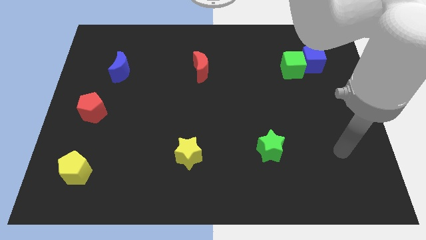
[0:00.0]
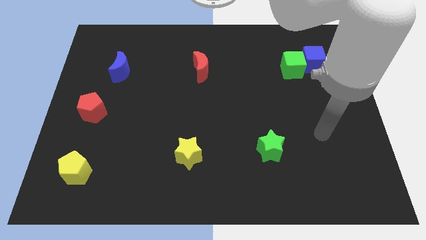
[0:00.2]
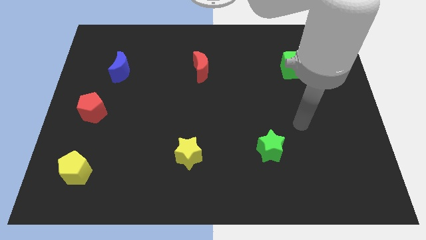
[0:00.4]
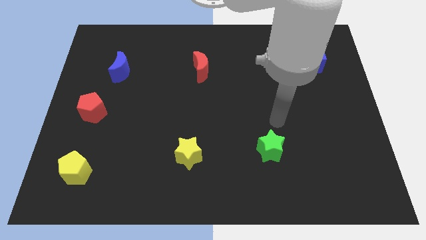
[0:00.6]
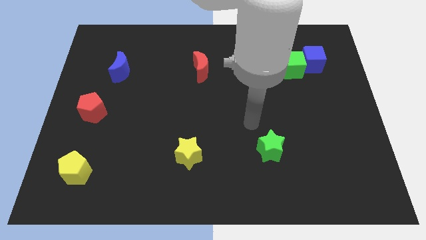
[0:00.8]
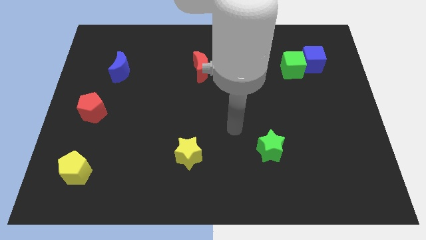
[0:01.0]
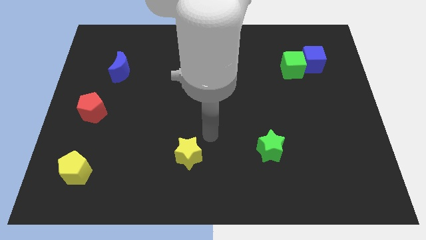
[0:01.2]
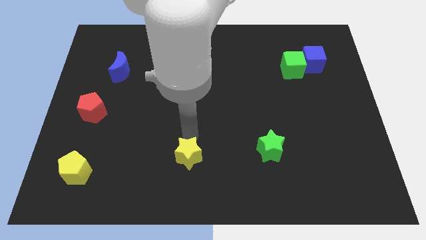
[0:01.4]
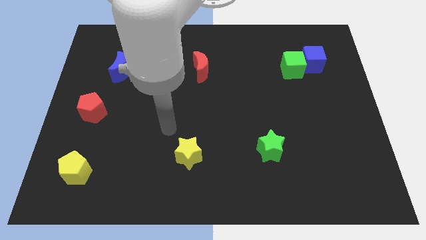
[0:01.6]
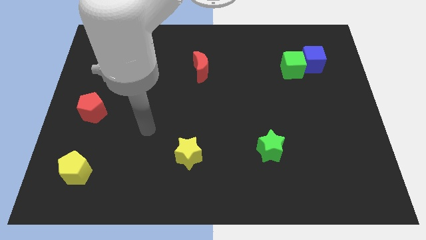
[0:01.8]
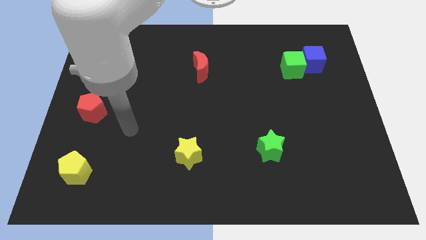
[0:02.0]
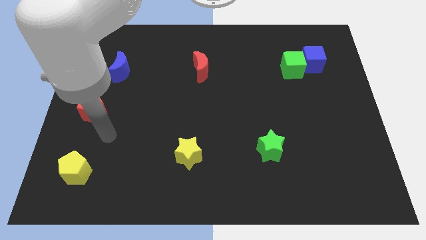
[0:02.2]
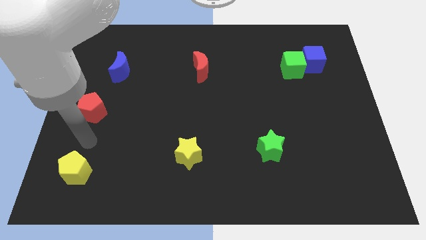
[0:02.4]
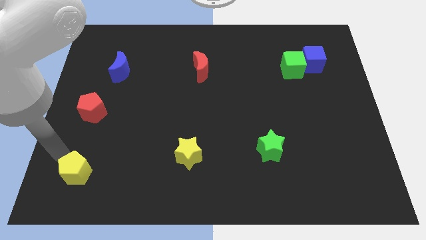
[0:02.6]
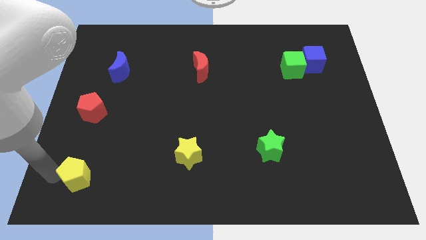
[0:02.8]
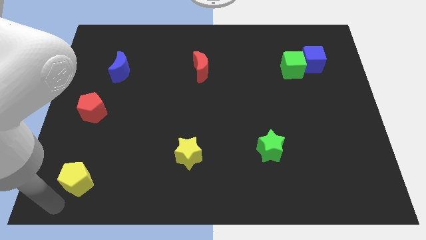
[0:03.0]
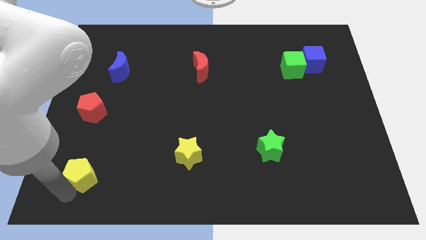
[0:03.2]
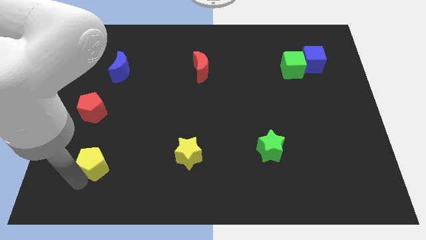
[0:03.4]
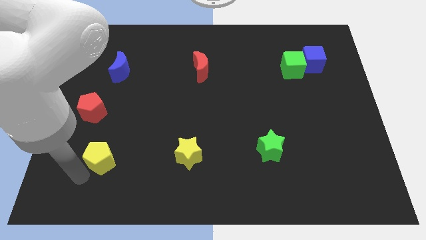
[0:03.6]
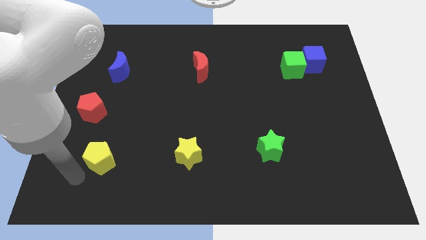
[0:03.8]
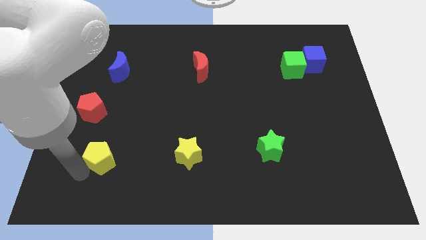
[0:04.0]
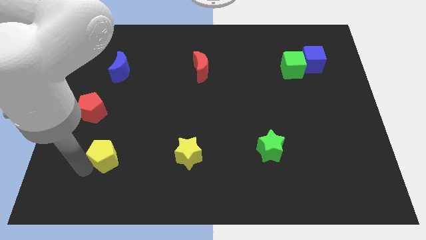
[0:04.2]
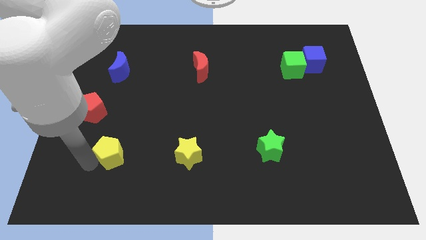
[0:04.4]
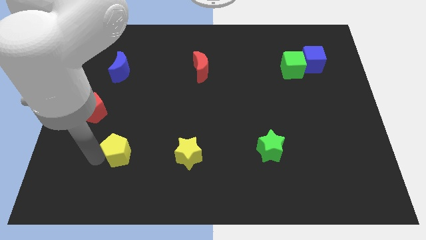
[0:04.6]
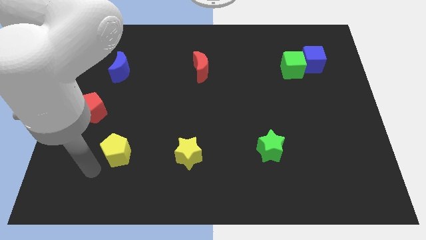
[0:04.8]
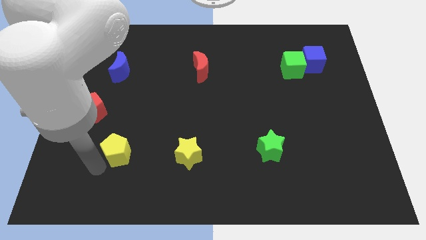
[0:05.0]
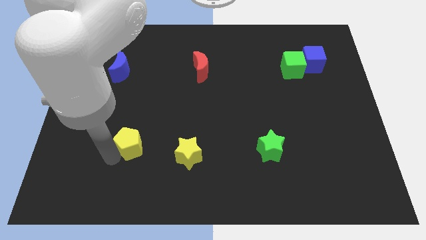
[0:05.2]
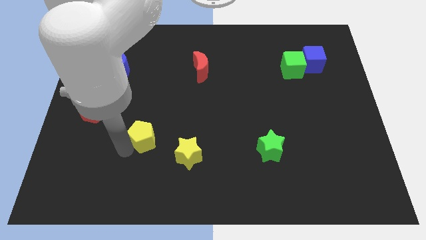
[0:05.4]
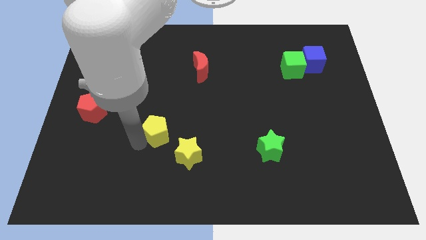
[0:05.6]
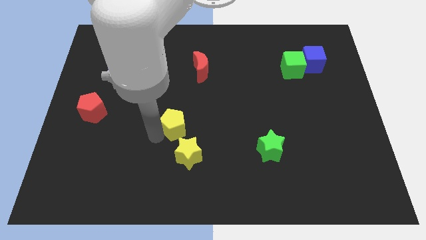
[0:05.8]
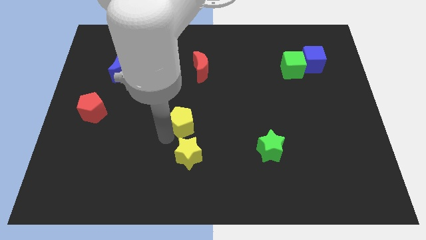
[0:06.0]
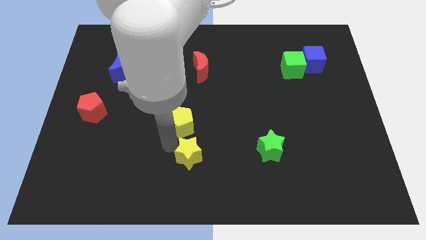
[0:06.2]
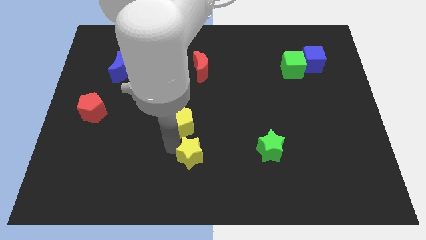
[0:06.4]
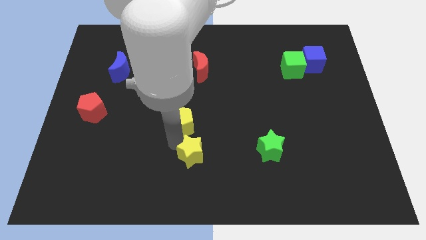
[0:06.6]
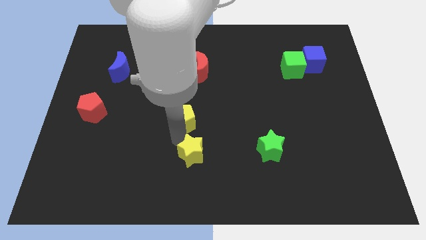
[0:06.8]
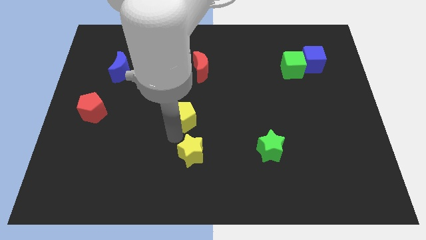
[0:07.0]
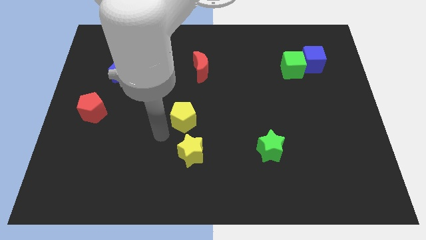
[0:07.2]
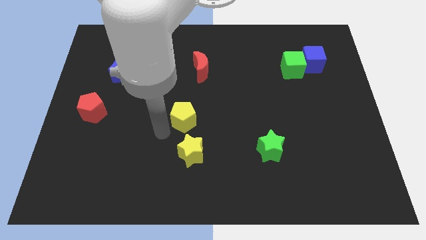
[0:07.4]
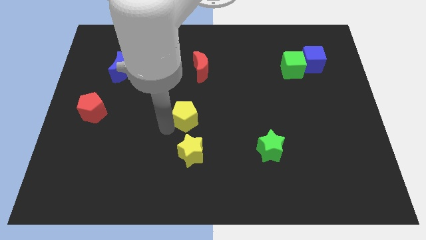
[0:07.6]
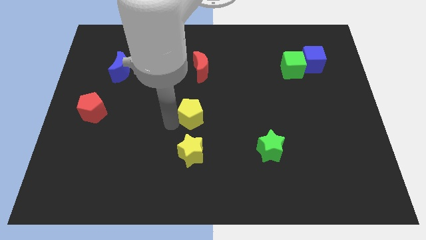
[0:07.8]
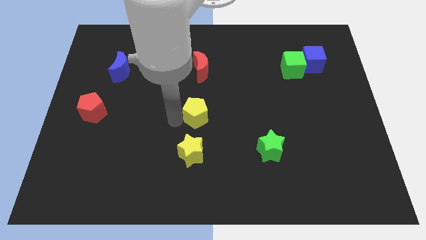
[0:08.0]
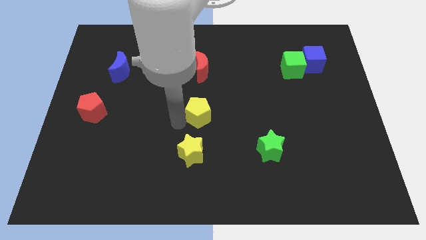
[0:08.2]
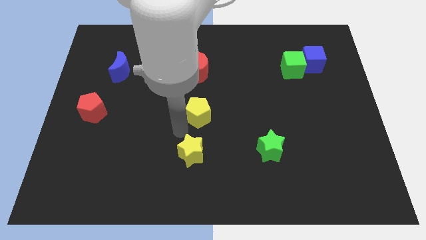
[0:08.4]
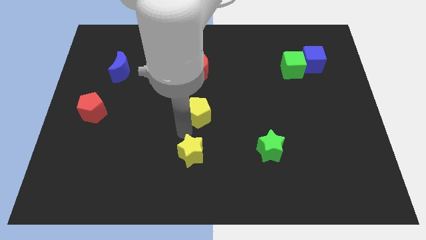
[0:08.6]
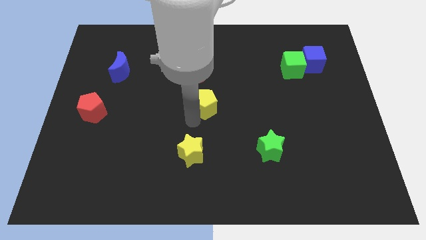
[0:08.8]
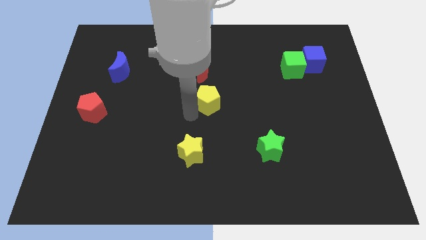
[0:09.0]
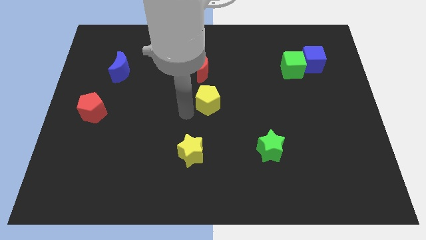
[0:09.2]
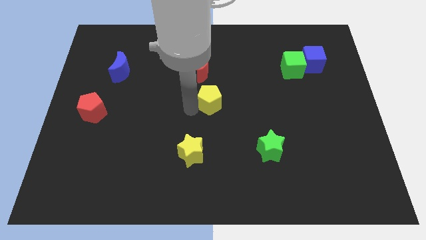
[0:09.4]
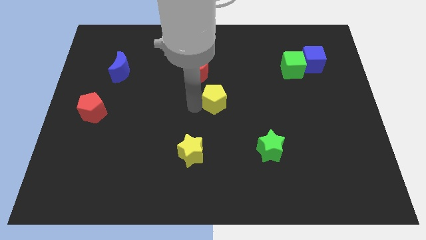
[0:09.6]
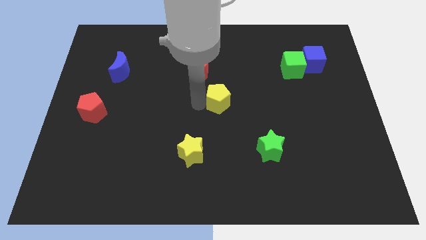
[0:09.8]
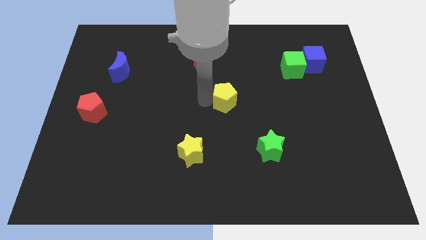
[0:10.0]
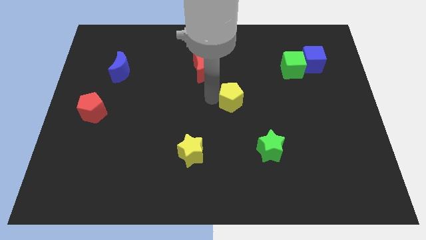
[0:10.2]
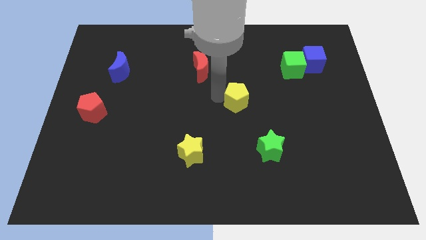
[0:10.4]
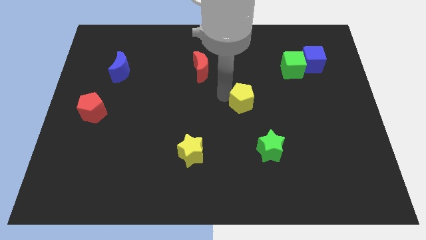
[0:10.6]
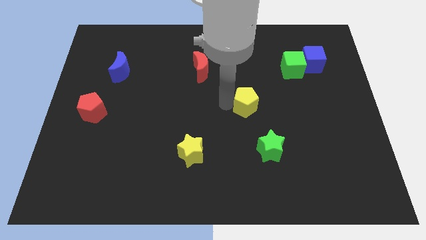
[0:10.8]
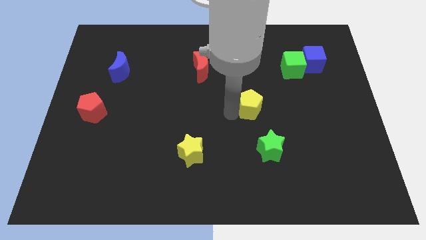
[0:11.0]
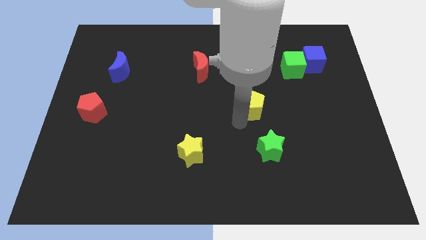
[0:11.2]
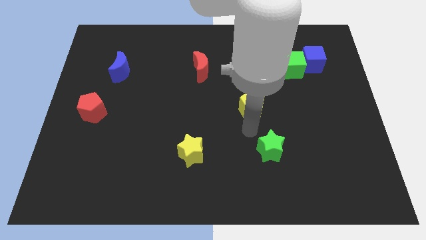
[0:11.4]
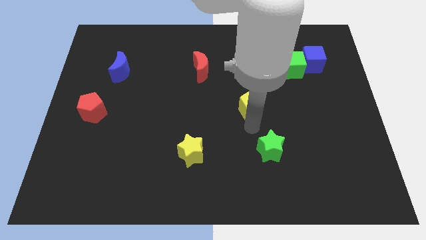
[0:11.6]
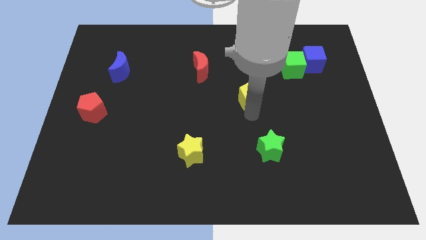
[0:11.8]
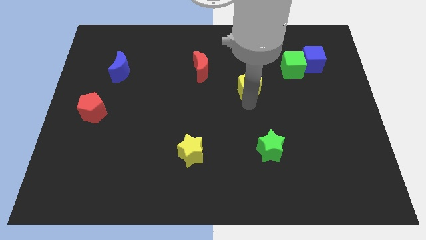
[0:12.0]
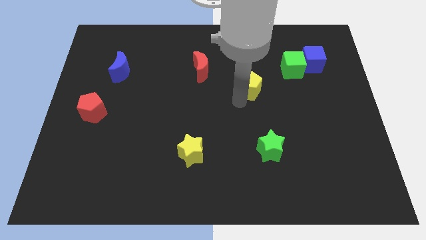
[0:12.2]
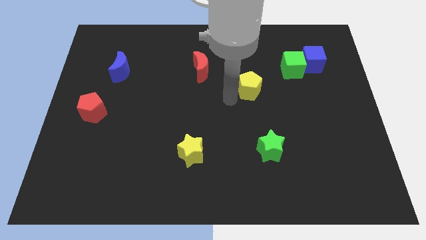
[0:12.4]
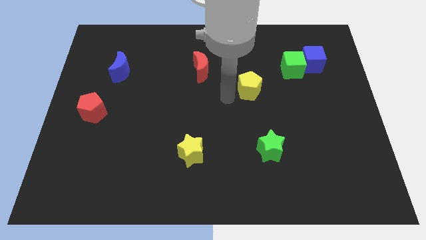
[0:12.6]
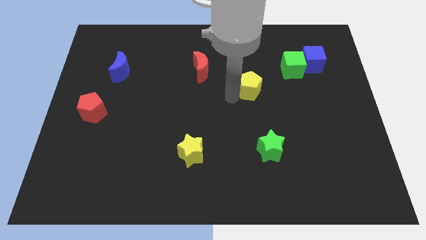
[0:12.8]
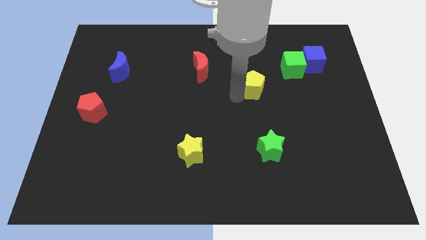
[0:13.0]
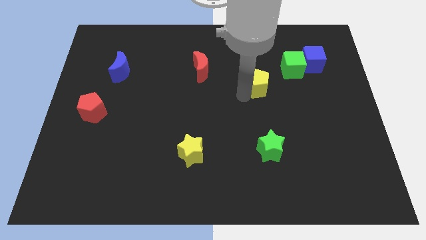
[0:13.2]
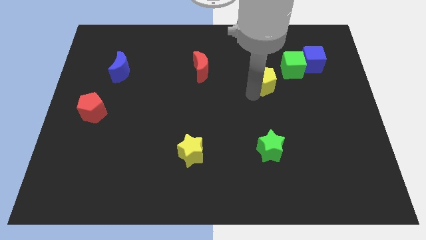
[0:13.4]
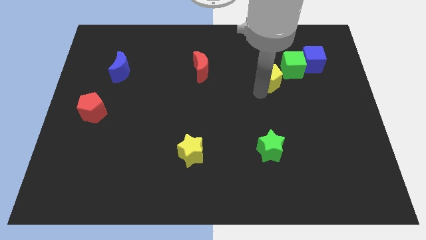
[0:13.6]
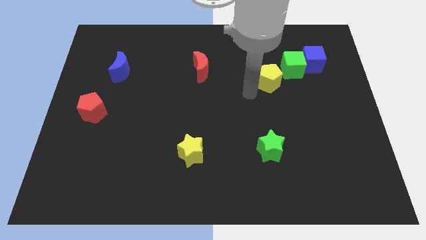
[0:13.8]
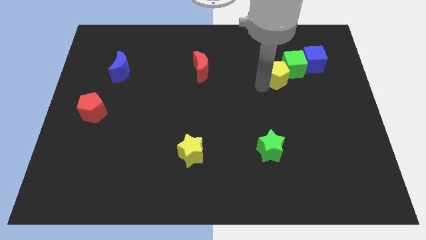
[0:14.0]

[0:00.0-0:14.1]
push the yellow pentagon close to the green cube
